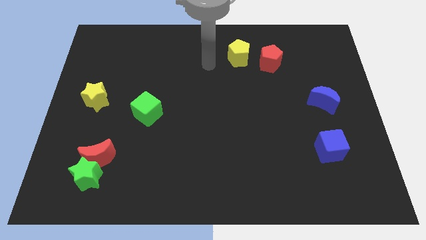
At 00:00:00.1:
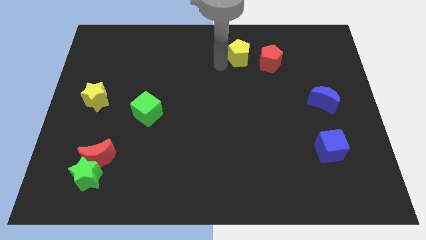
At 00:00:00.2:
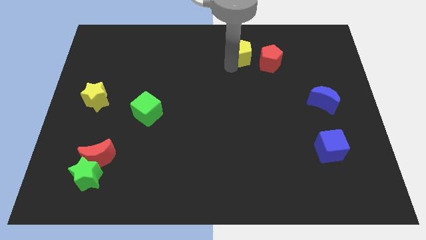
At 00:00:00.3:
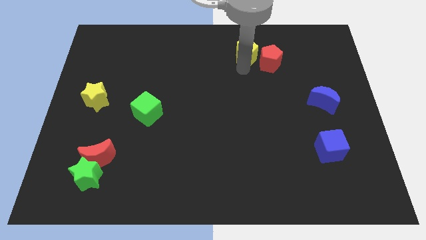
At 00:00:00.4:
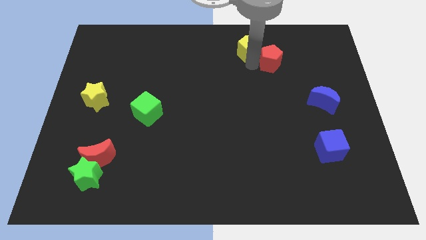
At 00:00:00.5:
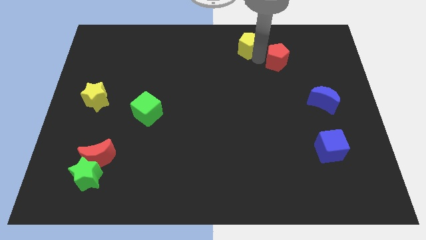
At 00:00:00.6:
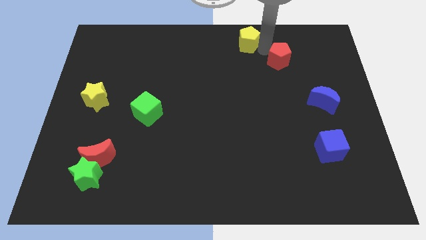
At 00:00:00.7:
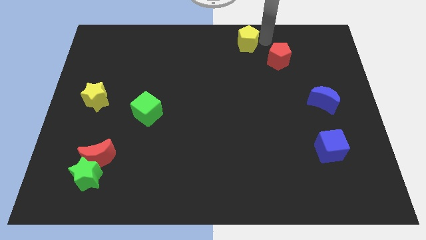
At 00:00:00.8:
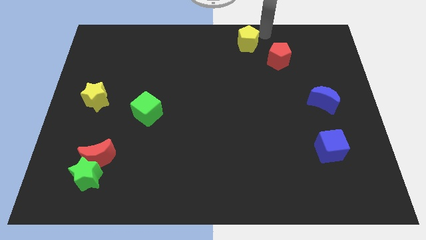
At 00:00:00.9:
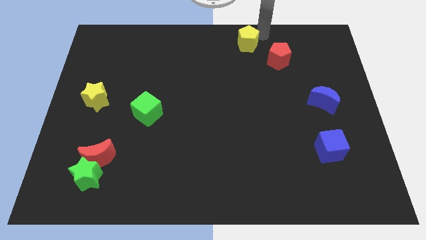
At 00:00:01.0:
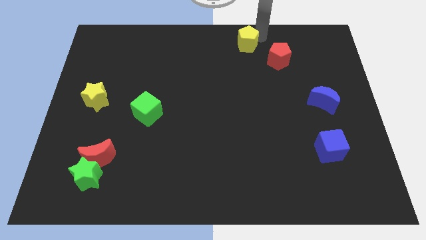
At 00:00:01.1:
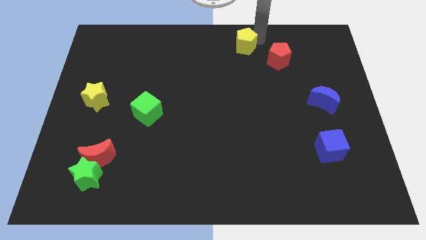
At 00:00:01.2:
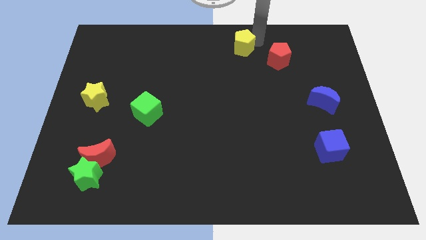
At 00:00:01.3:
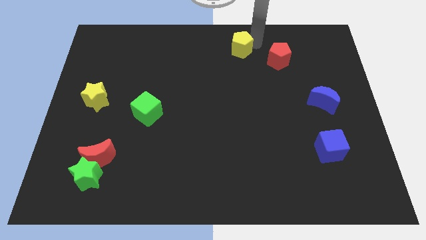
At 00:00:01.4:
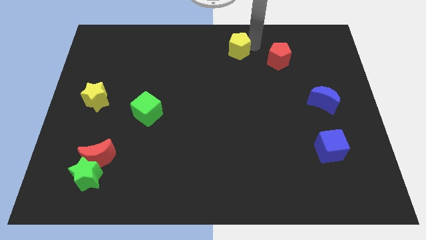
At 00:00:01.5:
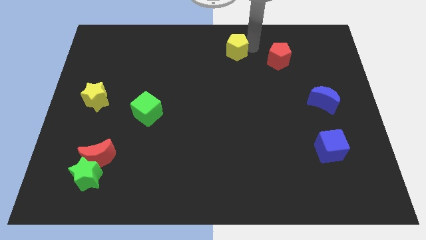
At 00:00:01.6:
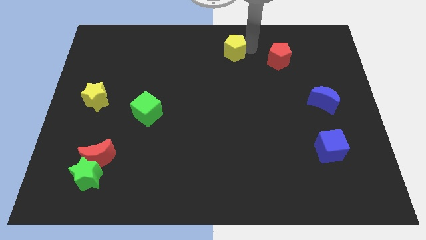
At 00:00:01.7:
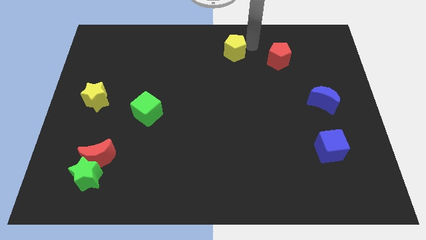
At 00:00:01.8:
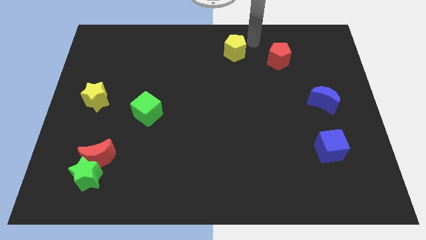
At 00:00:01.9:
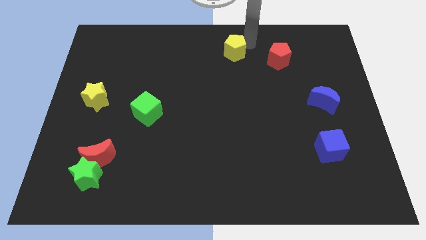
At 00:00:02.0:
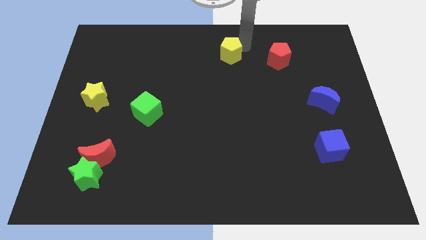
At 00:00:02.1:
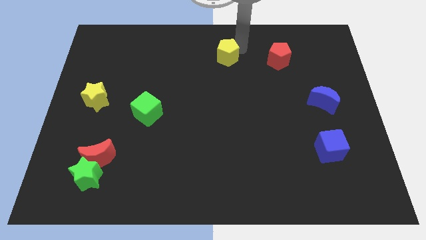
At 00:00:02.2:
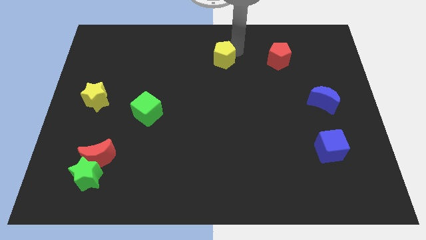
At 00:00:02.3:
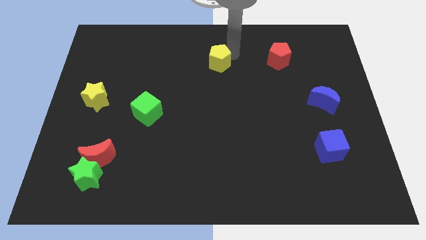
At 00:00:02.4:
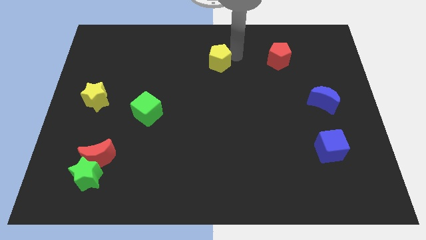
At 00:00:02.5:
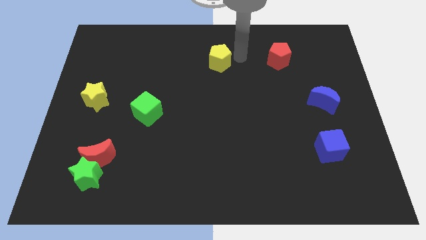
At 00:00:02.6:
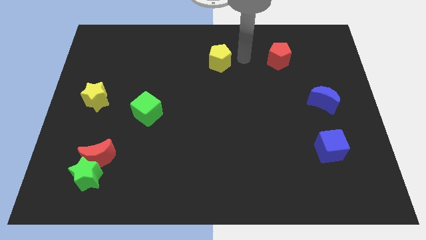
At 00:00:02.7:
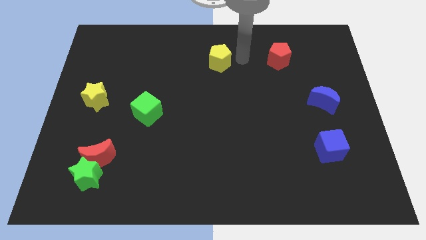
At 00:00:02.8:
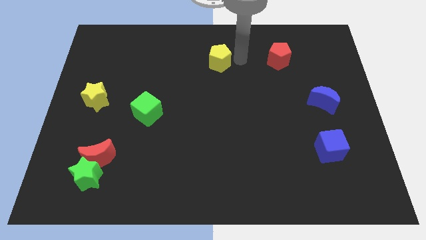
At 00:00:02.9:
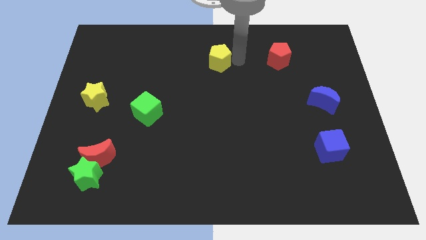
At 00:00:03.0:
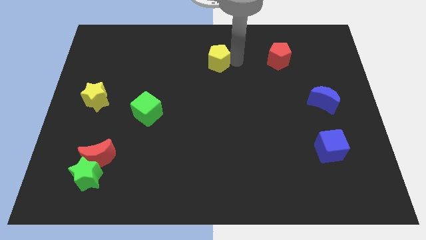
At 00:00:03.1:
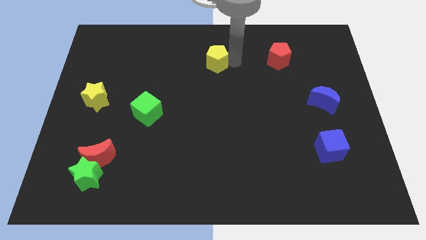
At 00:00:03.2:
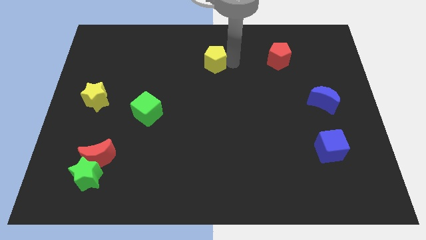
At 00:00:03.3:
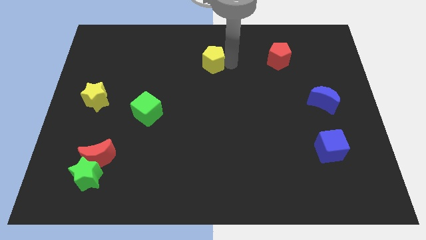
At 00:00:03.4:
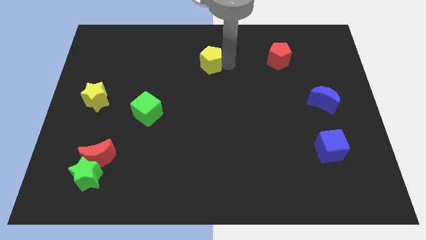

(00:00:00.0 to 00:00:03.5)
slide the yellow pentagon to the left a little

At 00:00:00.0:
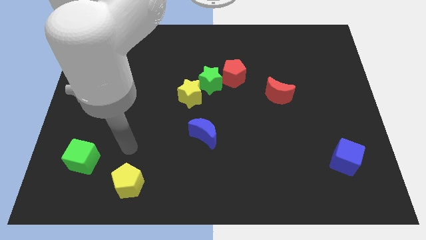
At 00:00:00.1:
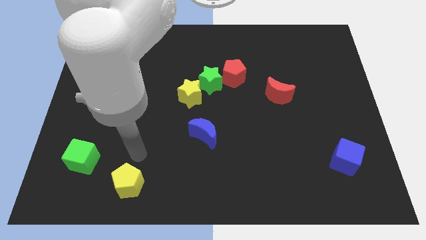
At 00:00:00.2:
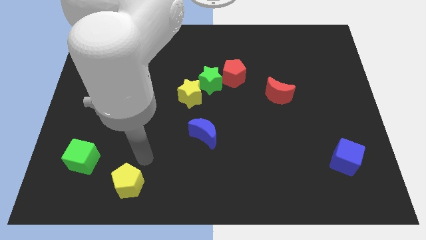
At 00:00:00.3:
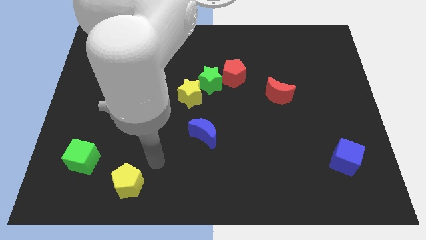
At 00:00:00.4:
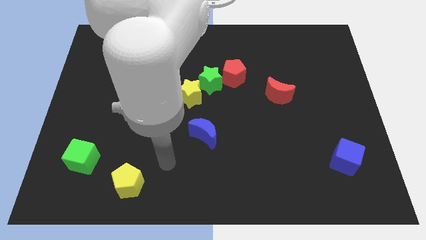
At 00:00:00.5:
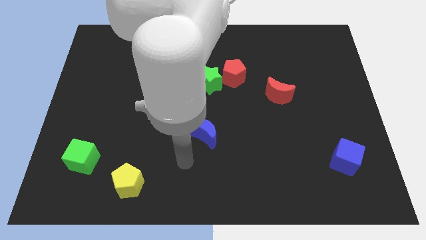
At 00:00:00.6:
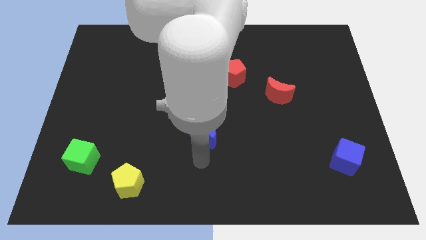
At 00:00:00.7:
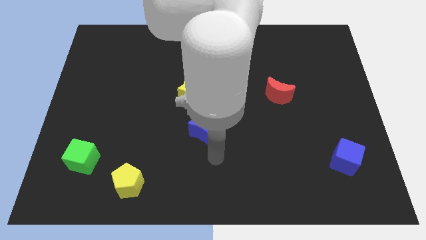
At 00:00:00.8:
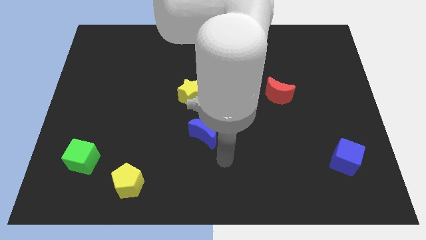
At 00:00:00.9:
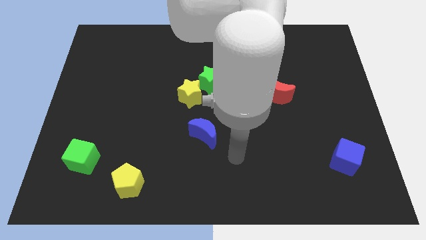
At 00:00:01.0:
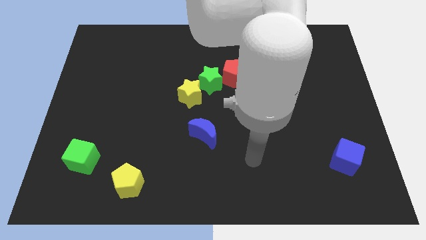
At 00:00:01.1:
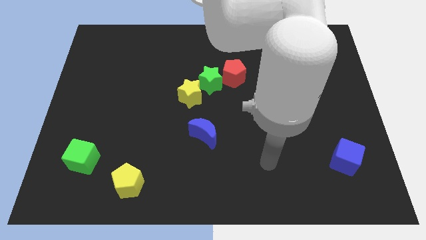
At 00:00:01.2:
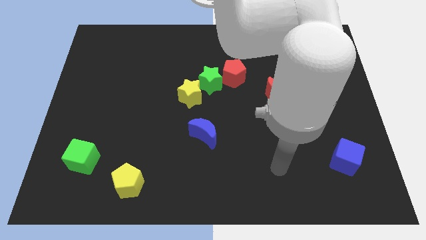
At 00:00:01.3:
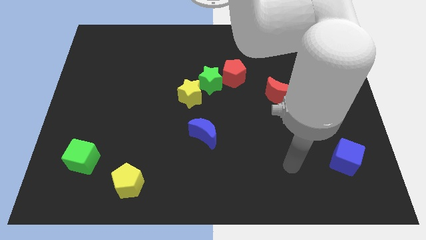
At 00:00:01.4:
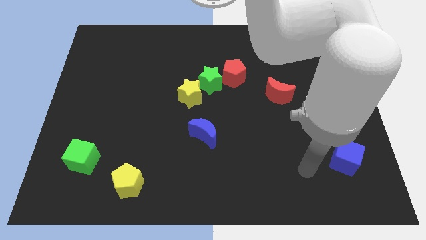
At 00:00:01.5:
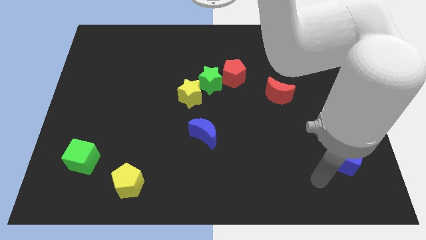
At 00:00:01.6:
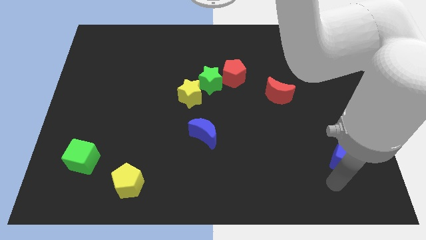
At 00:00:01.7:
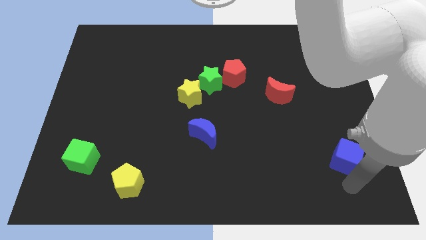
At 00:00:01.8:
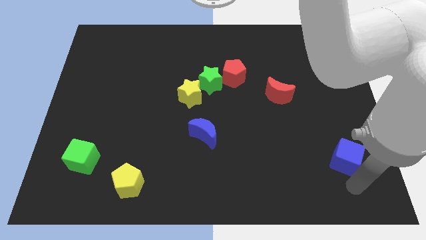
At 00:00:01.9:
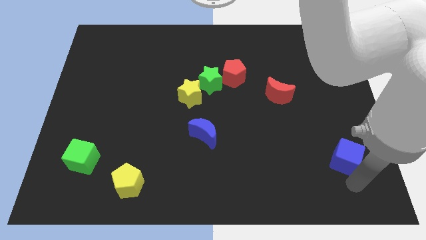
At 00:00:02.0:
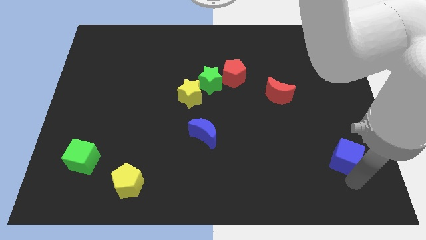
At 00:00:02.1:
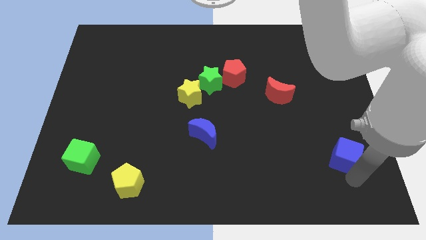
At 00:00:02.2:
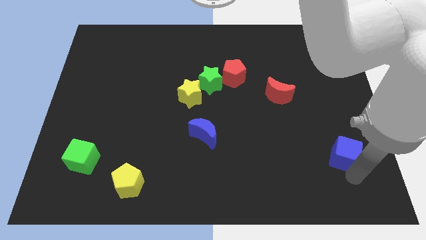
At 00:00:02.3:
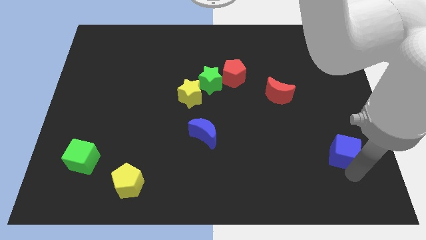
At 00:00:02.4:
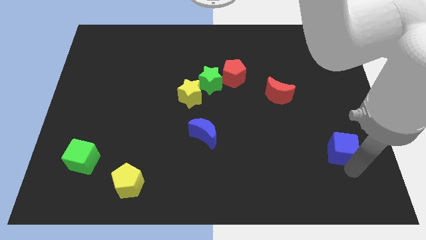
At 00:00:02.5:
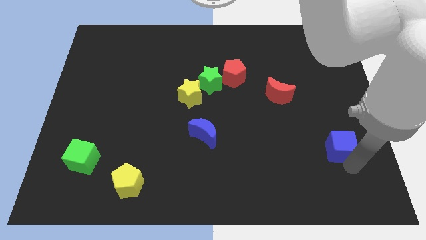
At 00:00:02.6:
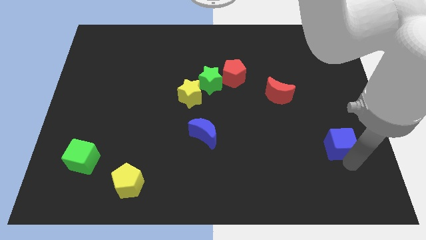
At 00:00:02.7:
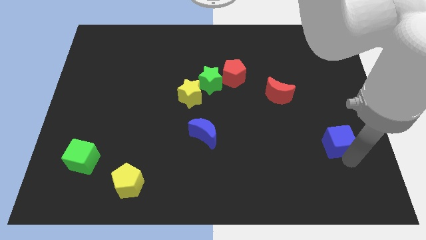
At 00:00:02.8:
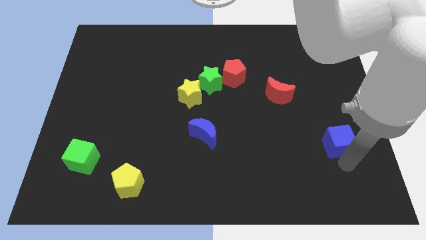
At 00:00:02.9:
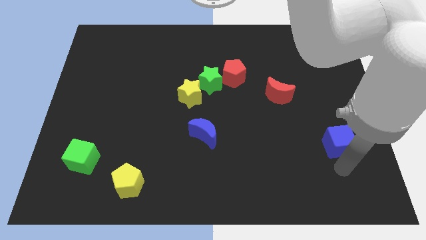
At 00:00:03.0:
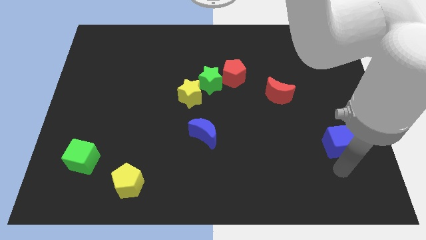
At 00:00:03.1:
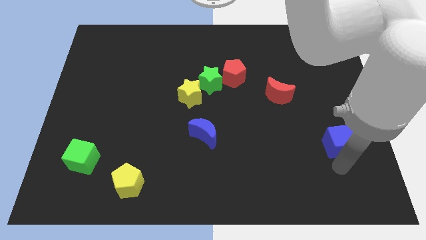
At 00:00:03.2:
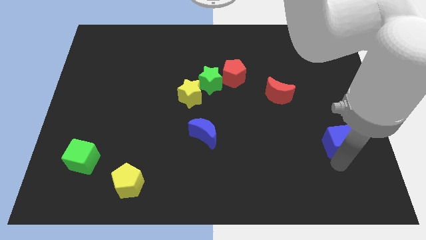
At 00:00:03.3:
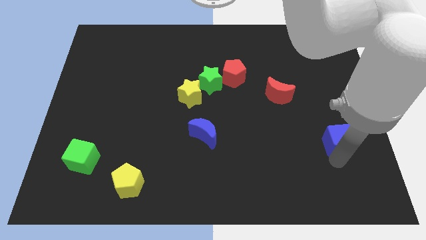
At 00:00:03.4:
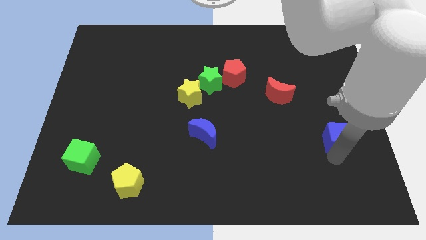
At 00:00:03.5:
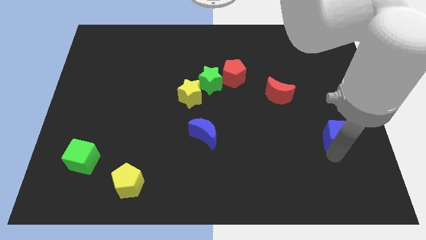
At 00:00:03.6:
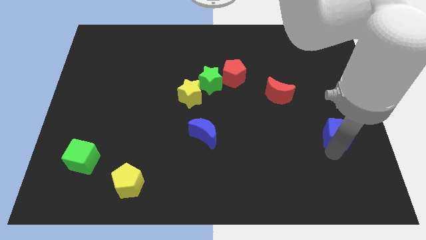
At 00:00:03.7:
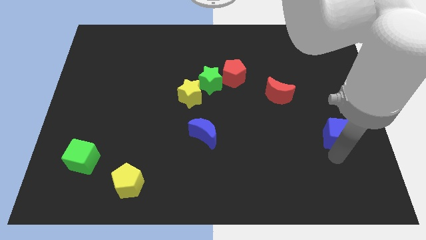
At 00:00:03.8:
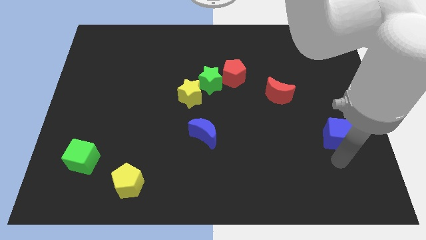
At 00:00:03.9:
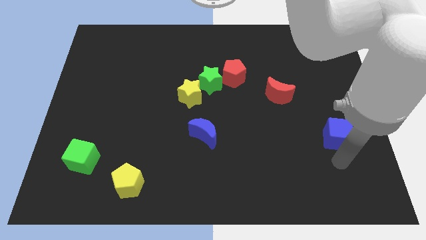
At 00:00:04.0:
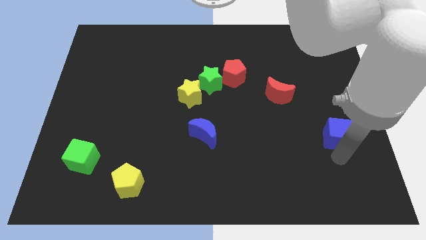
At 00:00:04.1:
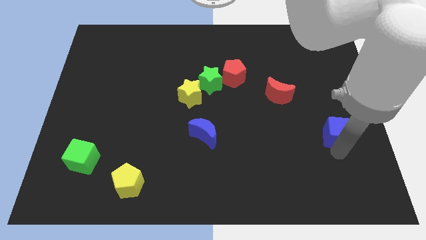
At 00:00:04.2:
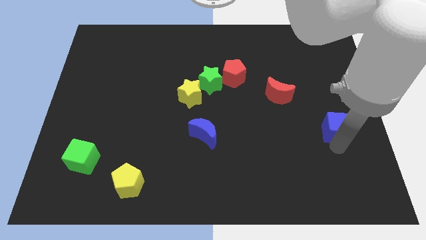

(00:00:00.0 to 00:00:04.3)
slide the blue cube upwards a little bit
